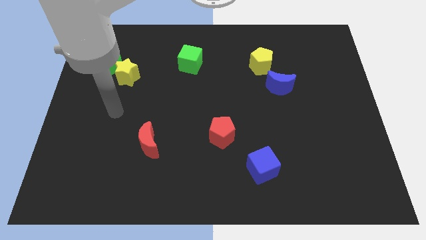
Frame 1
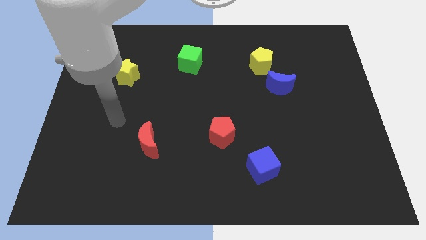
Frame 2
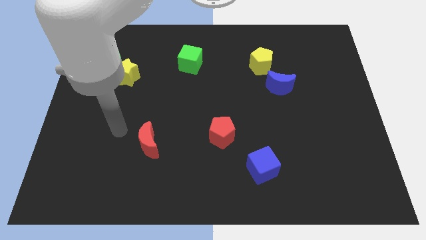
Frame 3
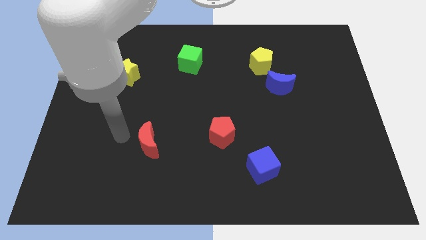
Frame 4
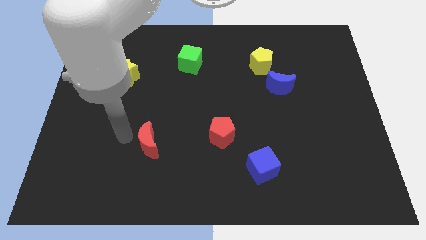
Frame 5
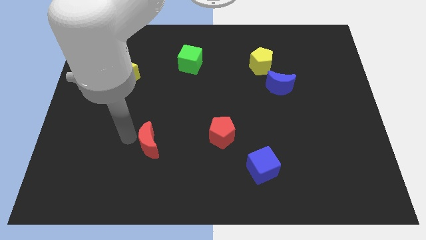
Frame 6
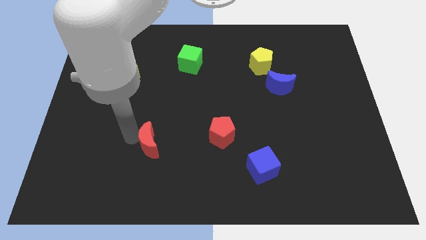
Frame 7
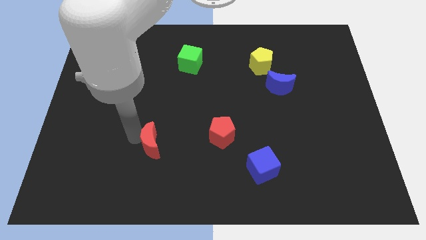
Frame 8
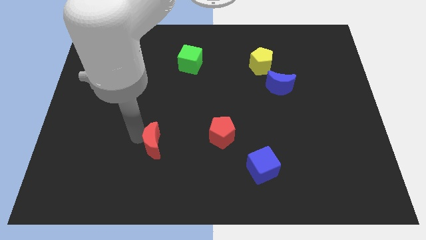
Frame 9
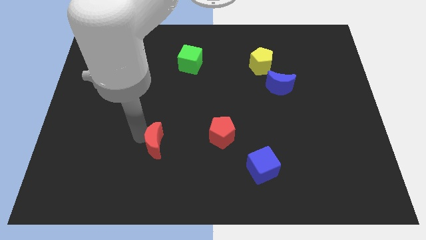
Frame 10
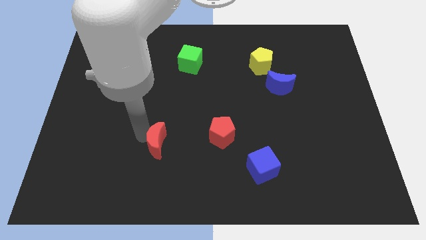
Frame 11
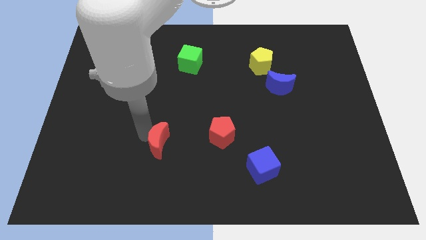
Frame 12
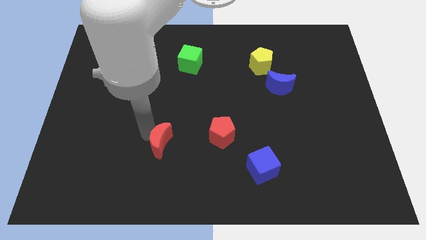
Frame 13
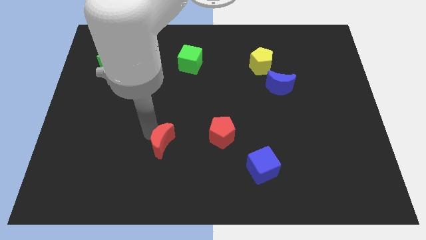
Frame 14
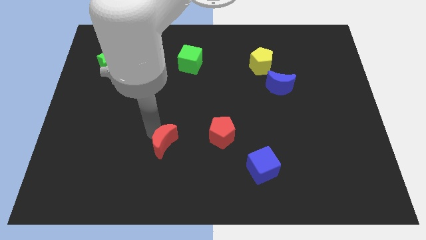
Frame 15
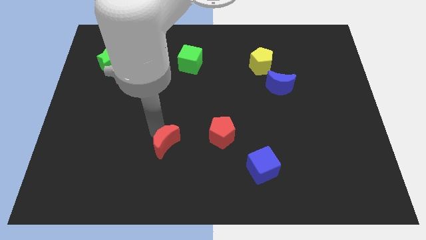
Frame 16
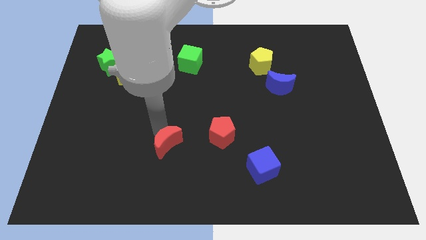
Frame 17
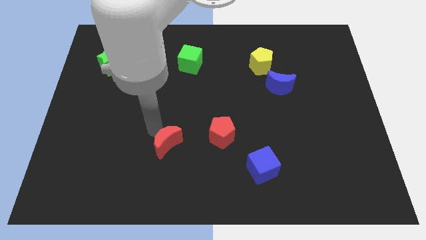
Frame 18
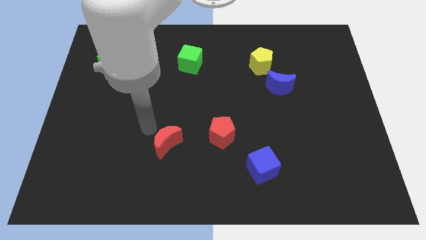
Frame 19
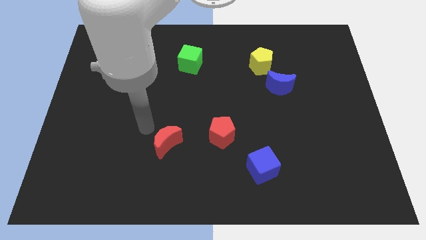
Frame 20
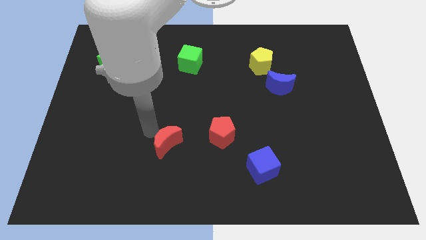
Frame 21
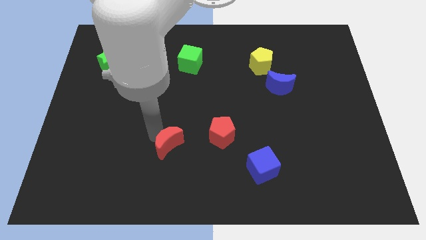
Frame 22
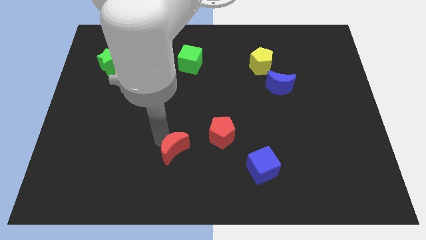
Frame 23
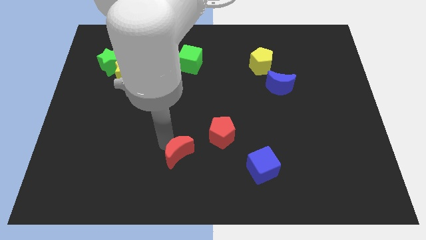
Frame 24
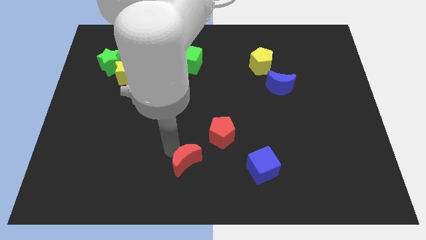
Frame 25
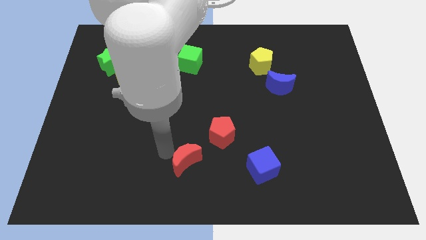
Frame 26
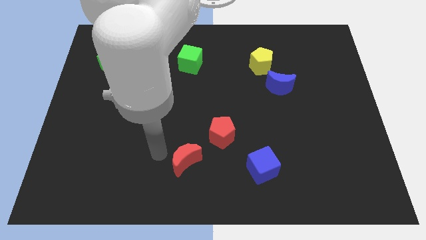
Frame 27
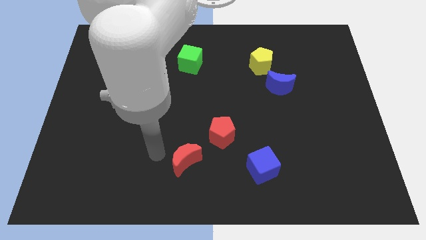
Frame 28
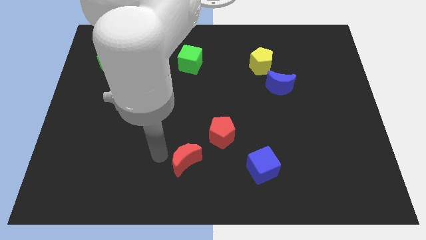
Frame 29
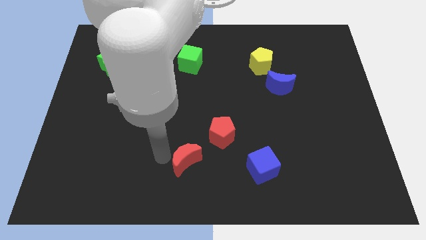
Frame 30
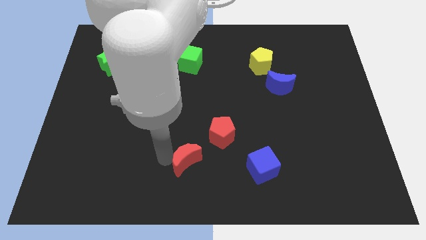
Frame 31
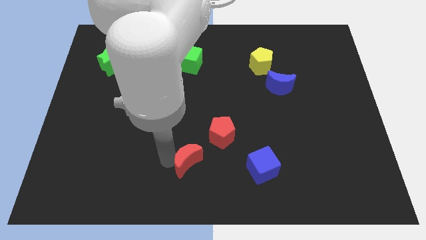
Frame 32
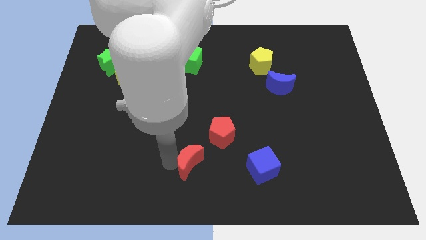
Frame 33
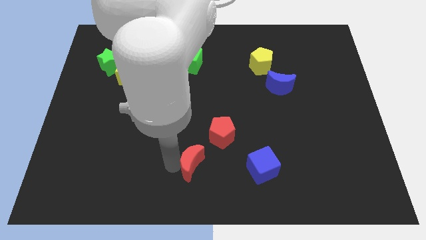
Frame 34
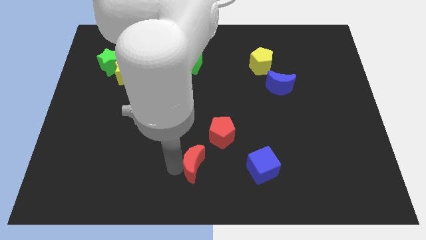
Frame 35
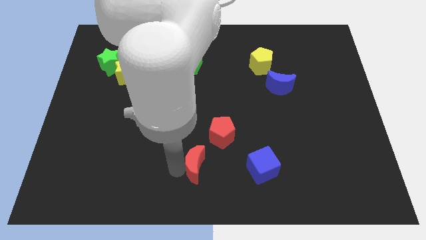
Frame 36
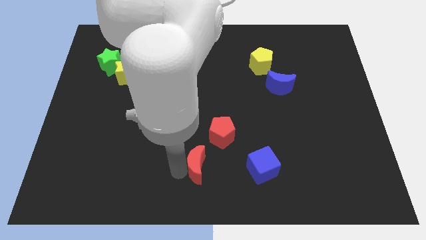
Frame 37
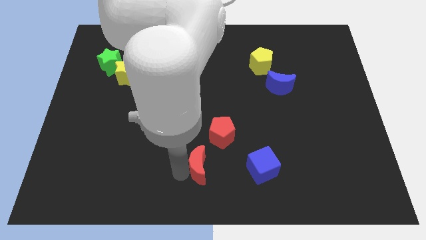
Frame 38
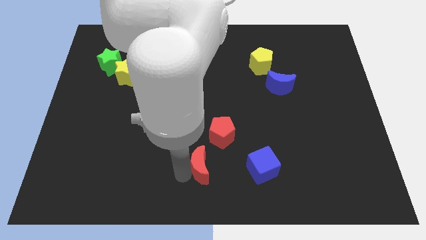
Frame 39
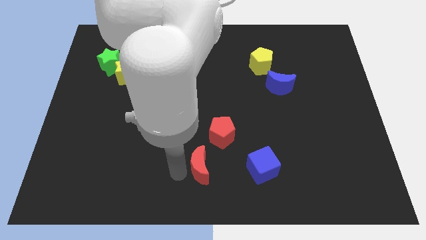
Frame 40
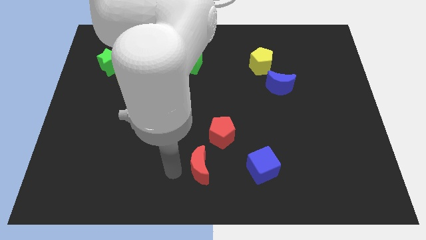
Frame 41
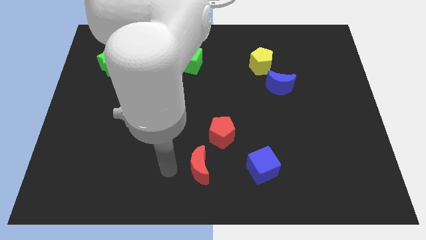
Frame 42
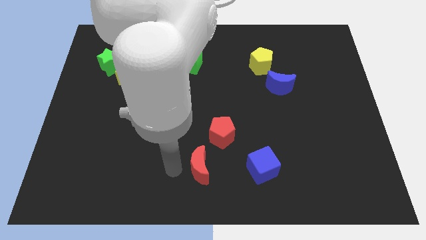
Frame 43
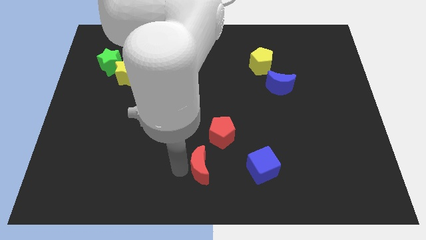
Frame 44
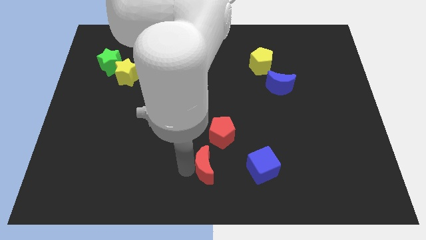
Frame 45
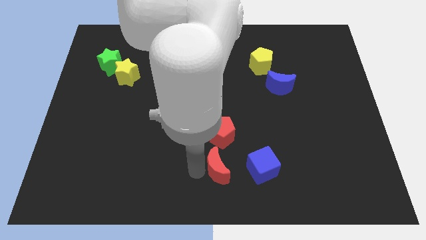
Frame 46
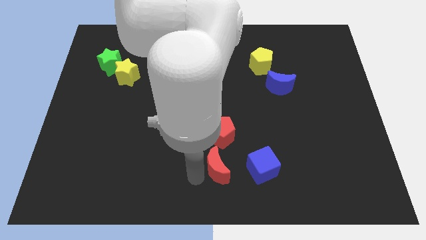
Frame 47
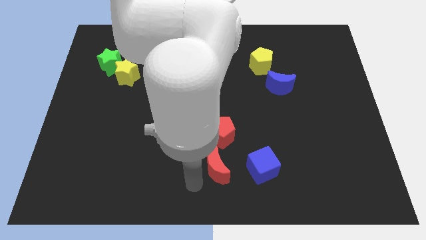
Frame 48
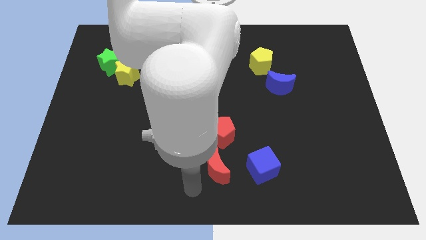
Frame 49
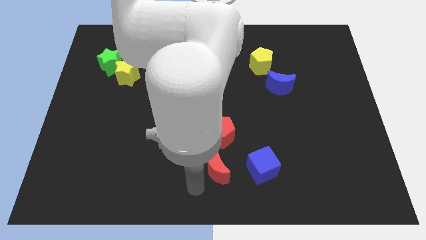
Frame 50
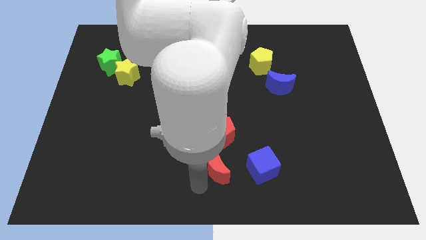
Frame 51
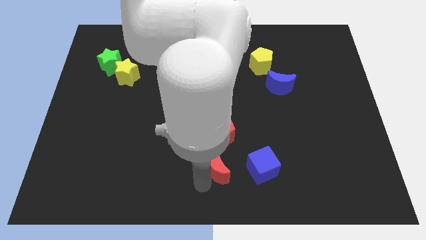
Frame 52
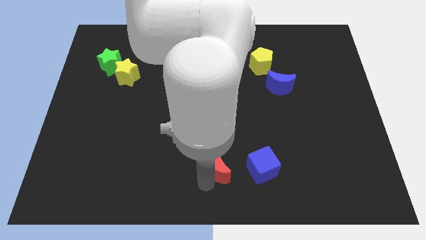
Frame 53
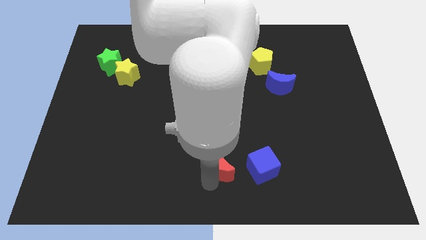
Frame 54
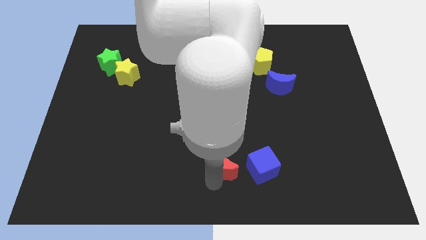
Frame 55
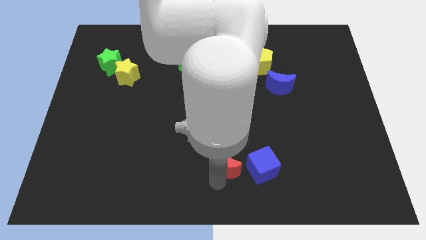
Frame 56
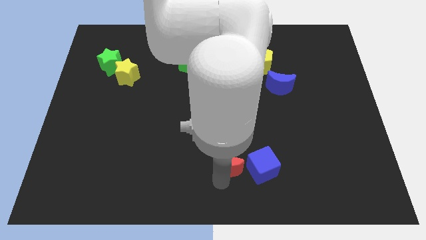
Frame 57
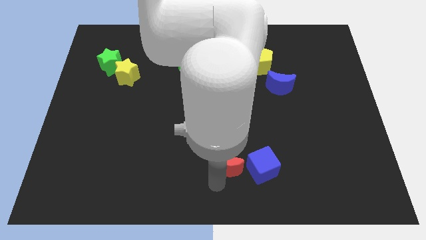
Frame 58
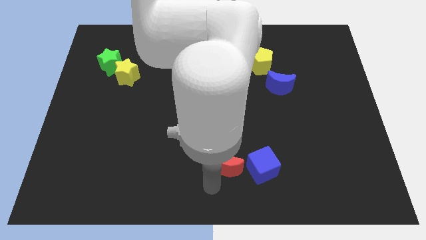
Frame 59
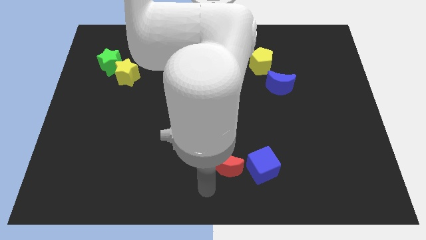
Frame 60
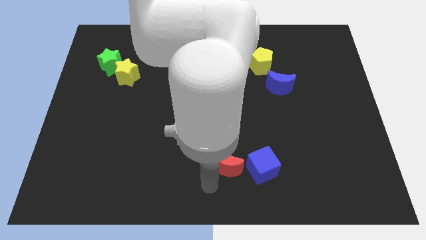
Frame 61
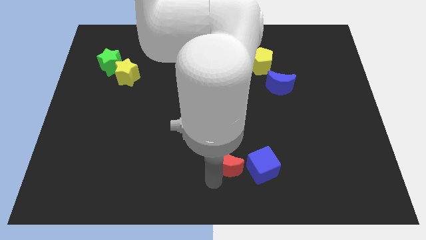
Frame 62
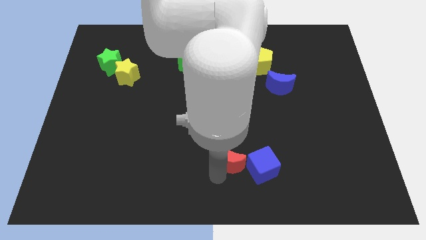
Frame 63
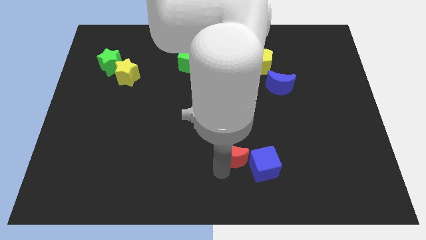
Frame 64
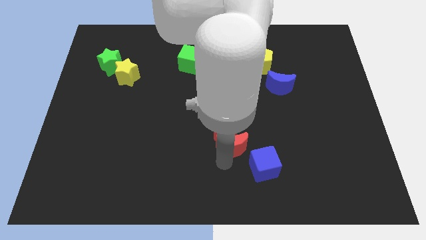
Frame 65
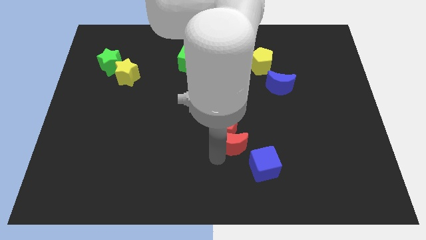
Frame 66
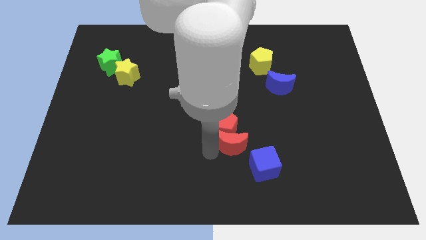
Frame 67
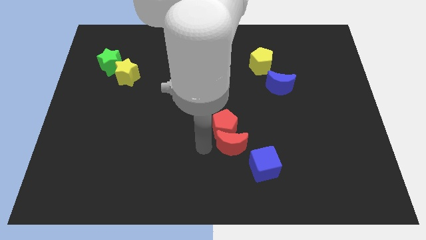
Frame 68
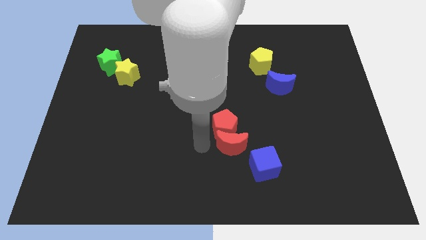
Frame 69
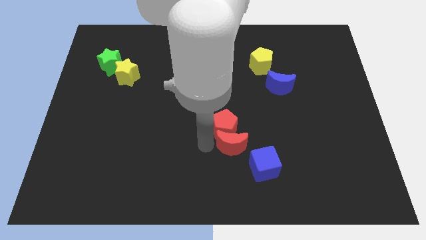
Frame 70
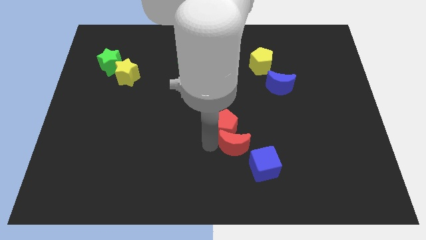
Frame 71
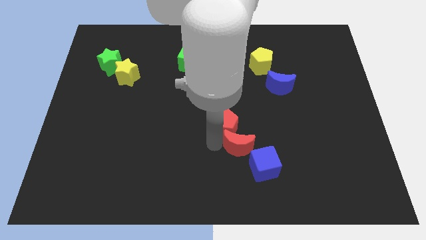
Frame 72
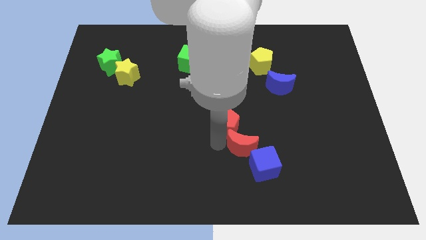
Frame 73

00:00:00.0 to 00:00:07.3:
move the red moon right

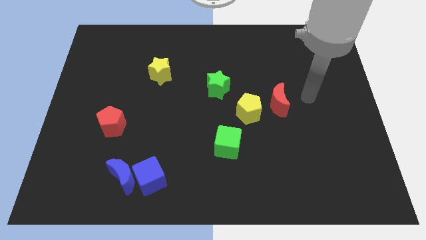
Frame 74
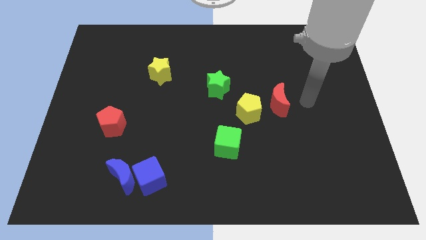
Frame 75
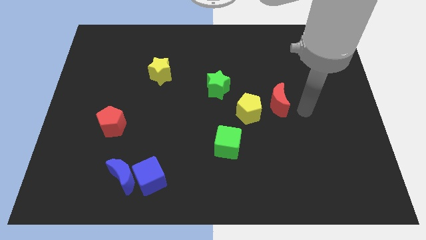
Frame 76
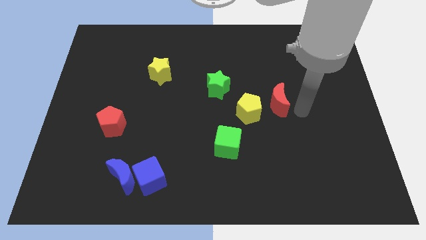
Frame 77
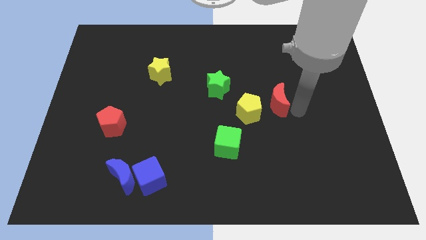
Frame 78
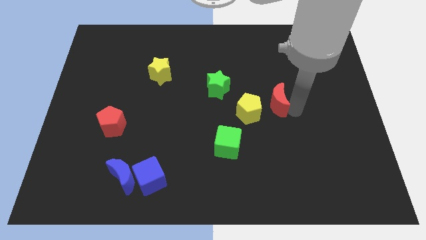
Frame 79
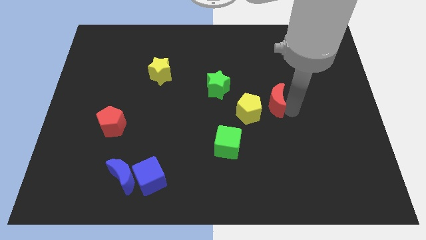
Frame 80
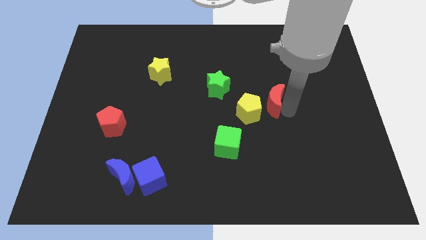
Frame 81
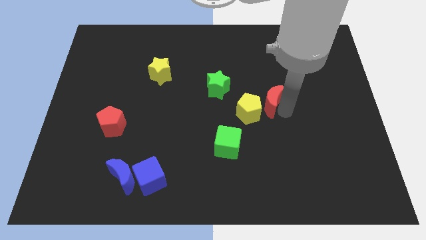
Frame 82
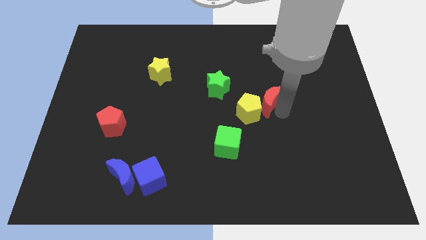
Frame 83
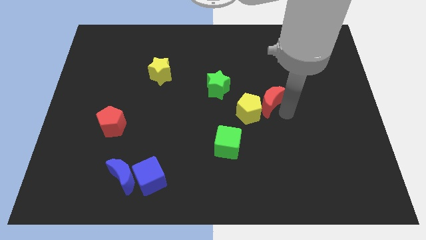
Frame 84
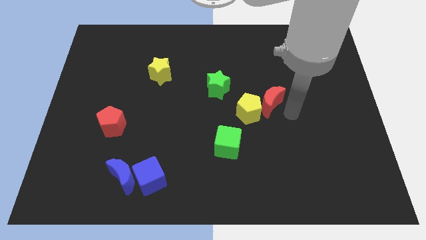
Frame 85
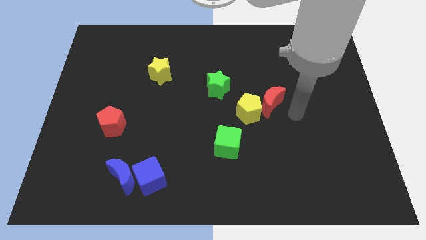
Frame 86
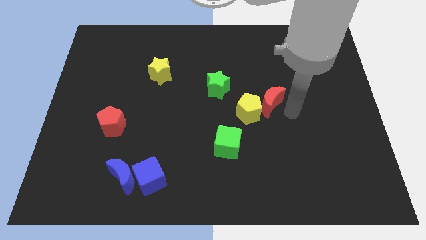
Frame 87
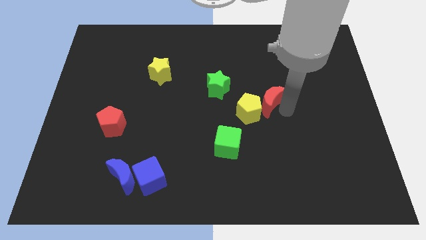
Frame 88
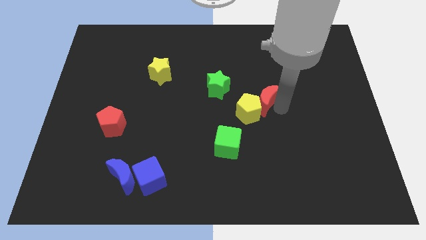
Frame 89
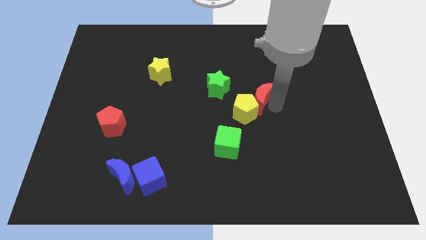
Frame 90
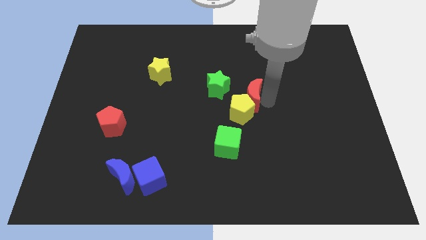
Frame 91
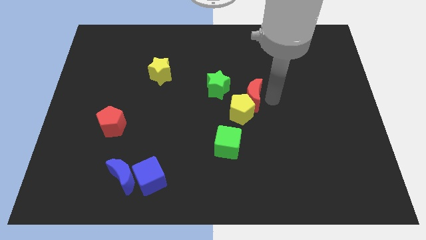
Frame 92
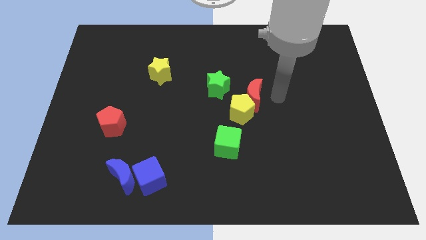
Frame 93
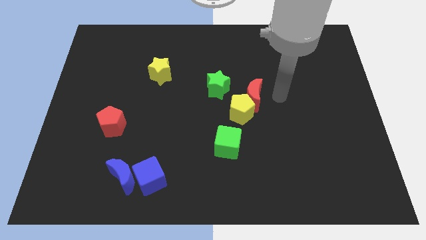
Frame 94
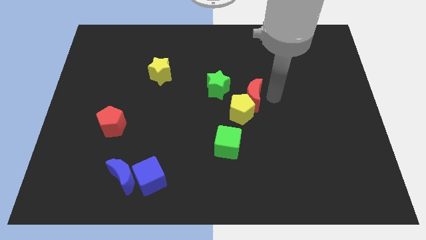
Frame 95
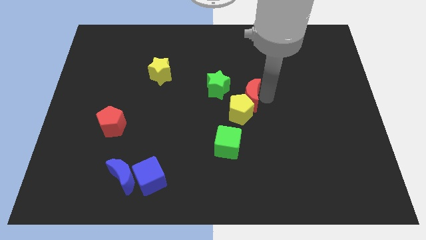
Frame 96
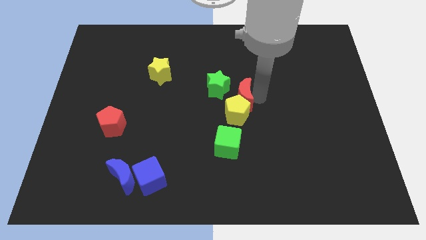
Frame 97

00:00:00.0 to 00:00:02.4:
move the red moon somewhat left
